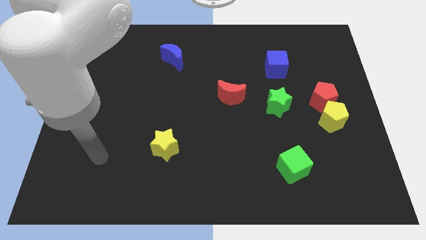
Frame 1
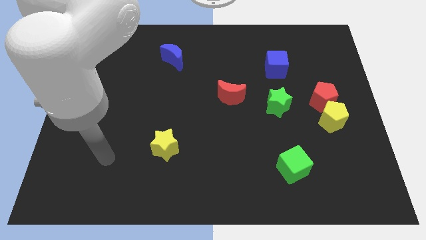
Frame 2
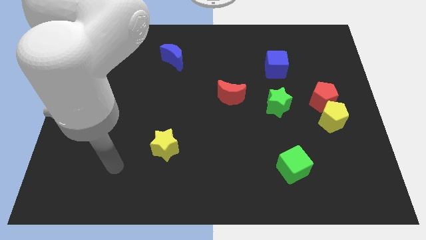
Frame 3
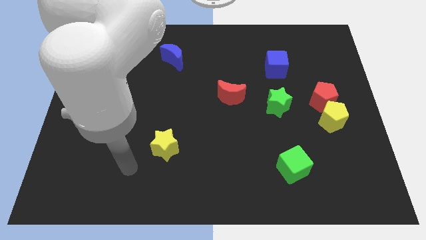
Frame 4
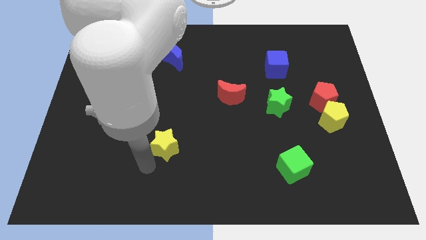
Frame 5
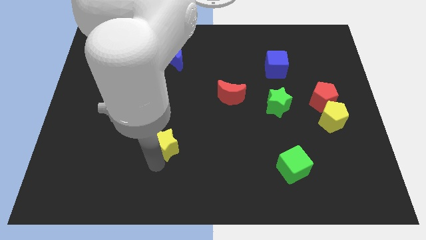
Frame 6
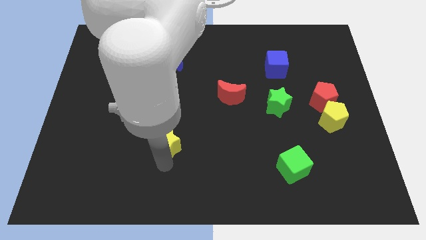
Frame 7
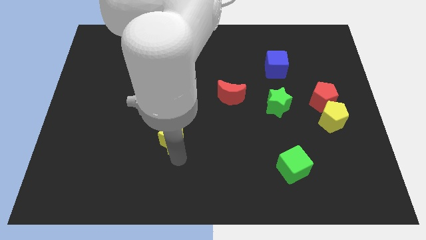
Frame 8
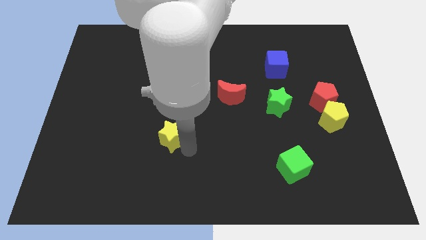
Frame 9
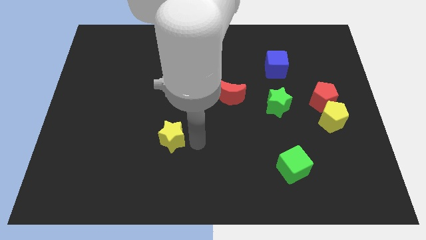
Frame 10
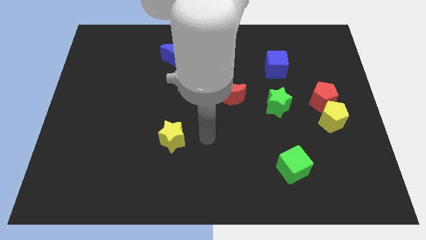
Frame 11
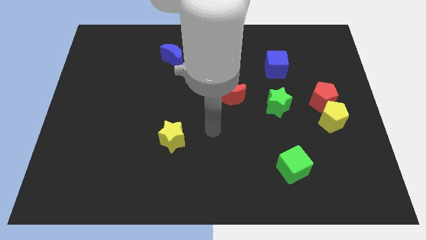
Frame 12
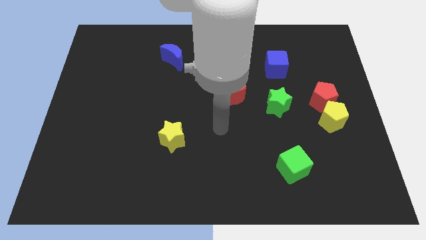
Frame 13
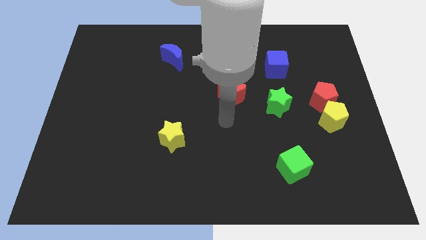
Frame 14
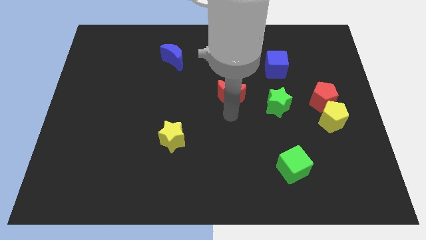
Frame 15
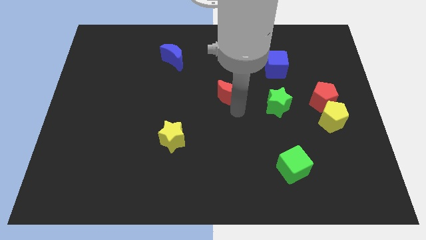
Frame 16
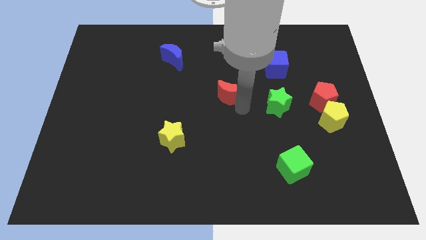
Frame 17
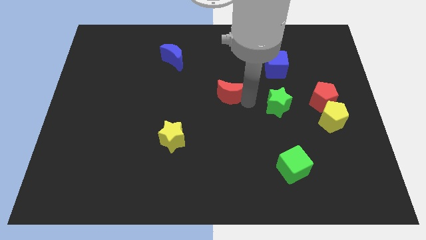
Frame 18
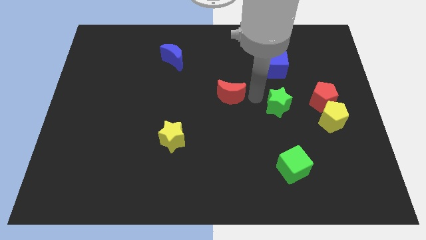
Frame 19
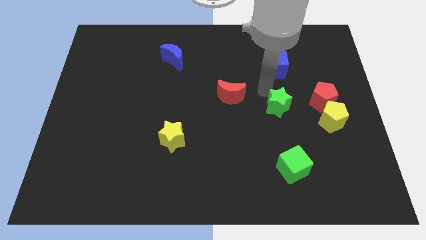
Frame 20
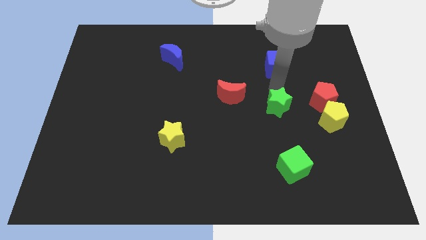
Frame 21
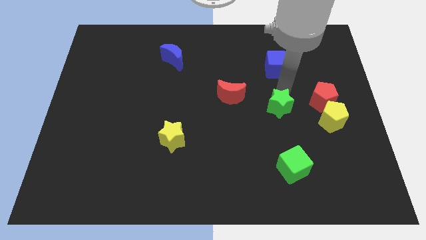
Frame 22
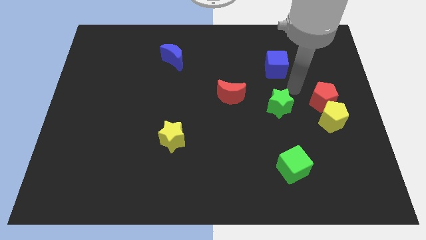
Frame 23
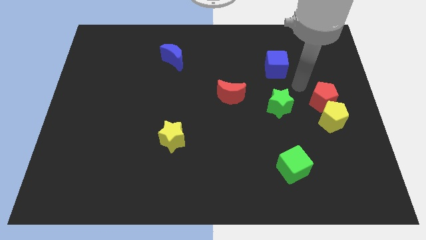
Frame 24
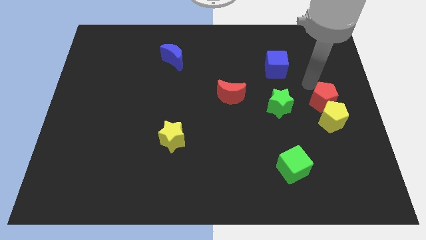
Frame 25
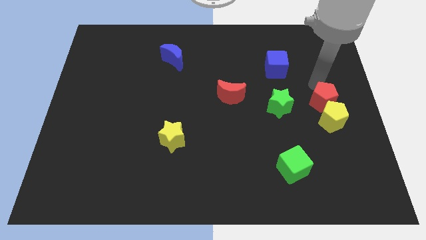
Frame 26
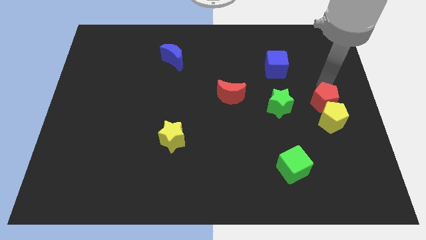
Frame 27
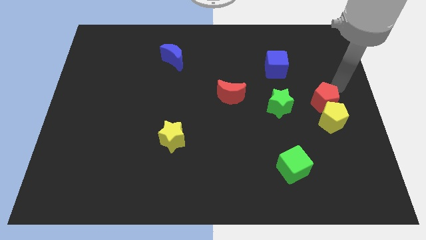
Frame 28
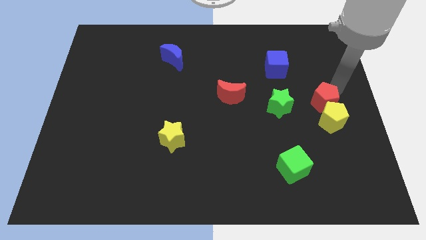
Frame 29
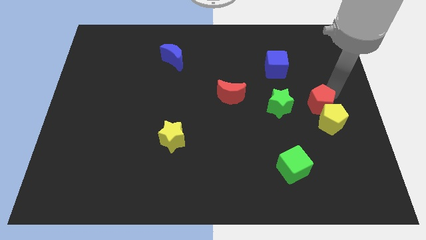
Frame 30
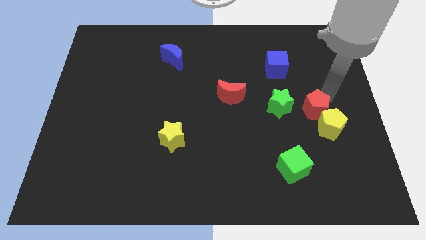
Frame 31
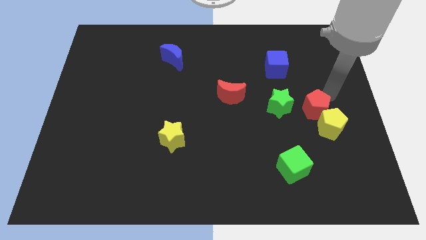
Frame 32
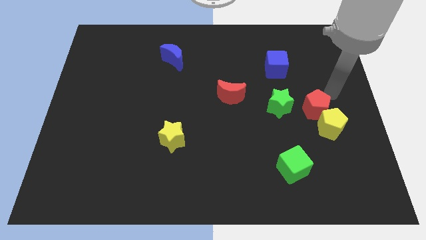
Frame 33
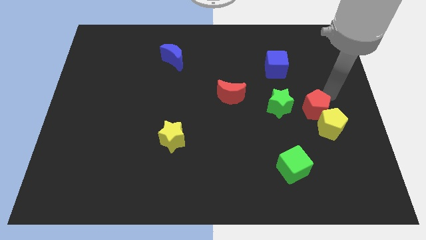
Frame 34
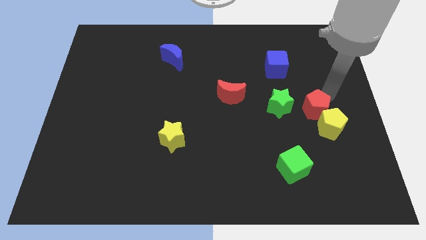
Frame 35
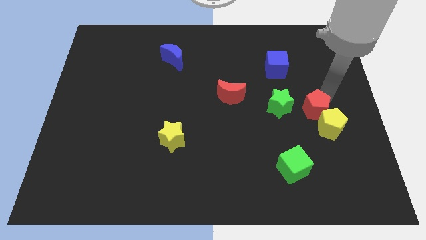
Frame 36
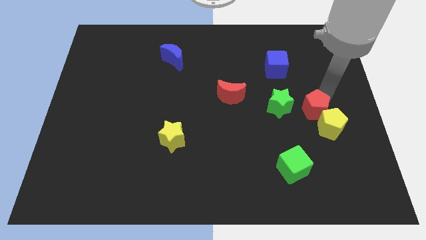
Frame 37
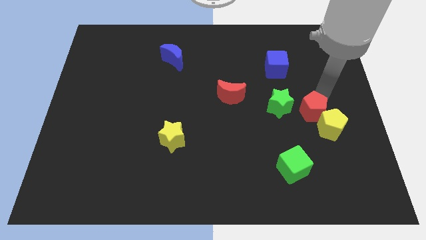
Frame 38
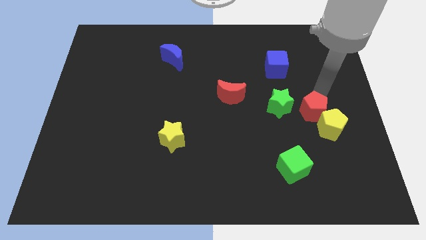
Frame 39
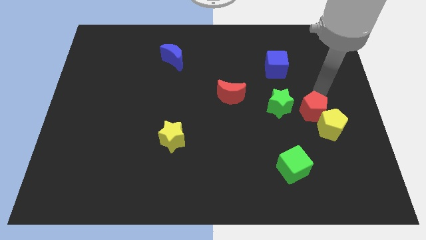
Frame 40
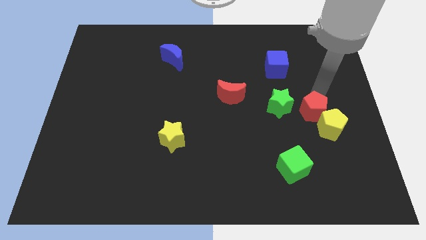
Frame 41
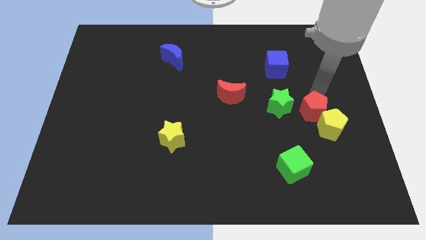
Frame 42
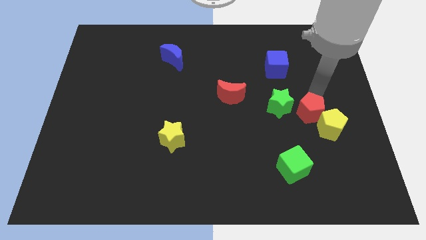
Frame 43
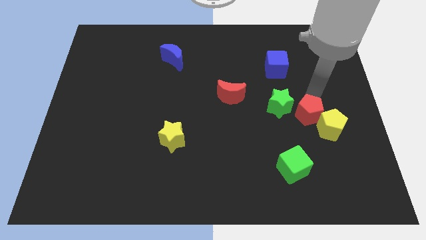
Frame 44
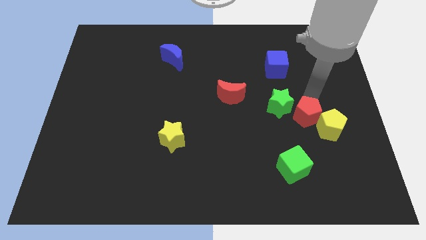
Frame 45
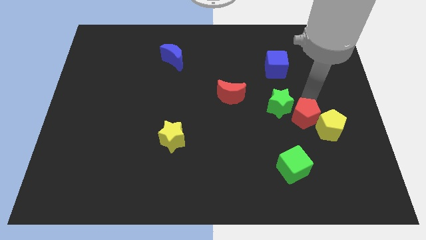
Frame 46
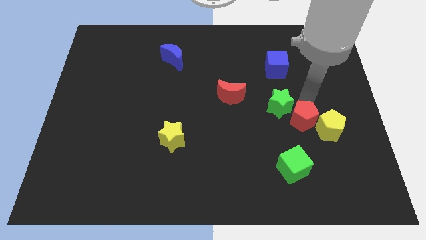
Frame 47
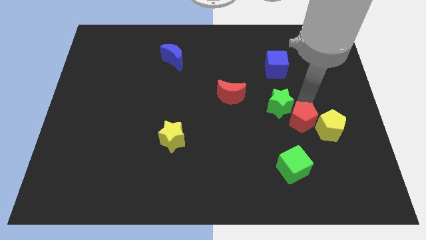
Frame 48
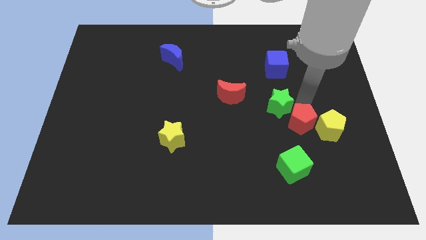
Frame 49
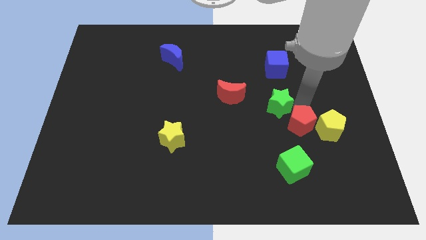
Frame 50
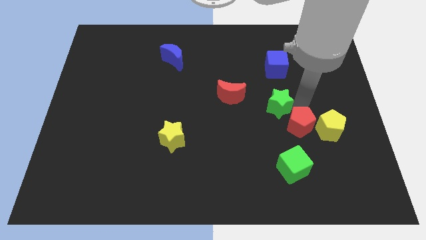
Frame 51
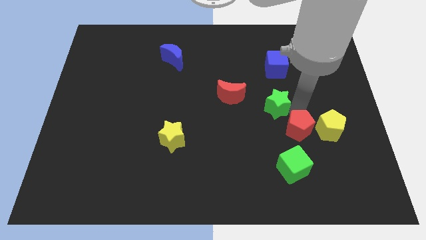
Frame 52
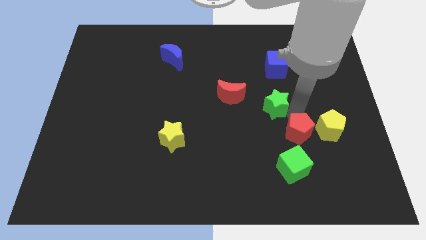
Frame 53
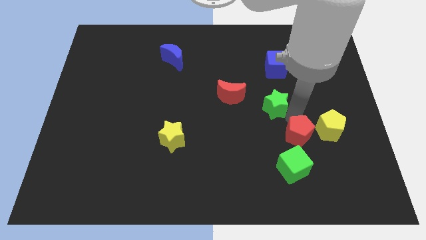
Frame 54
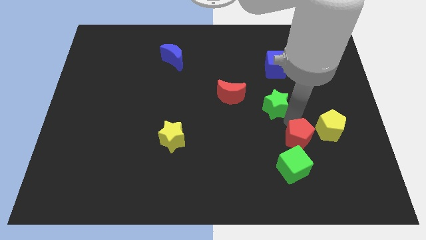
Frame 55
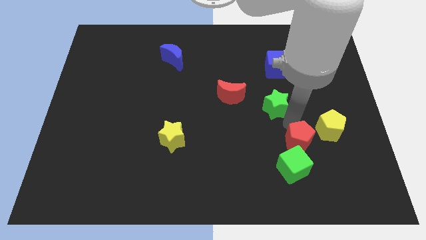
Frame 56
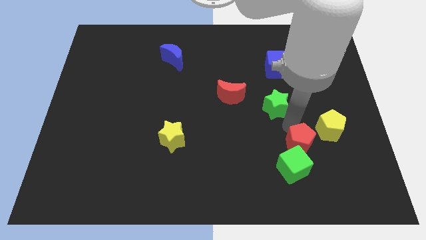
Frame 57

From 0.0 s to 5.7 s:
put the red pentagon close to the green cube

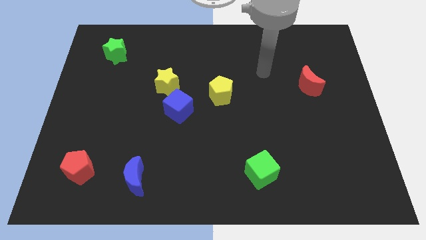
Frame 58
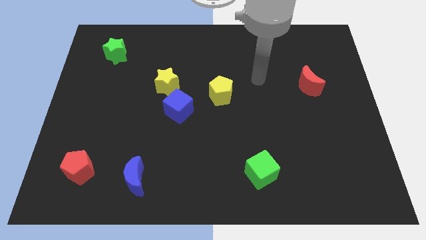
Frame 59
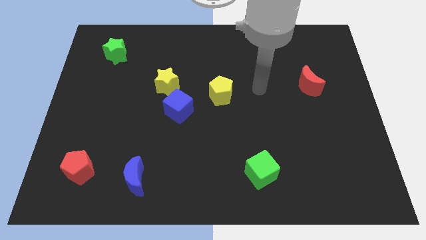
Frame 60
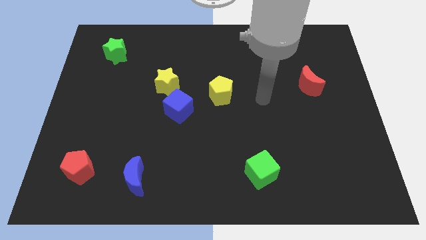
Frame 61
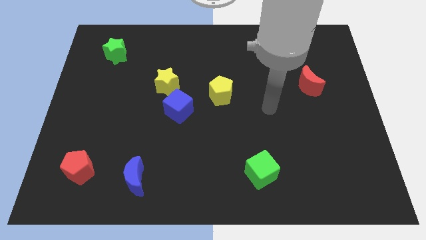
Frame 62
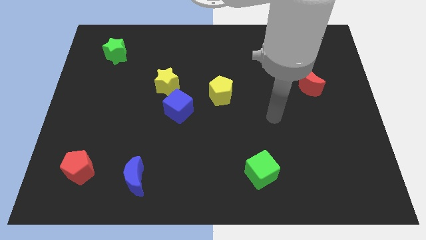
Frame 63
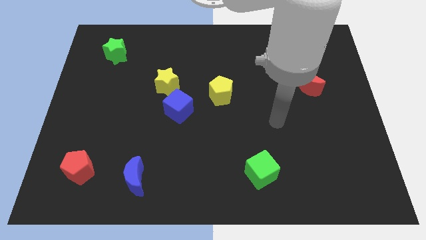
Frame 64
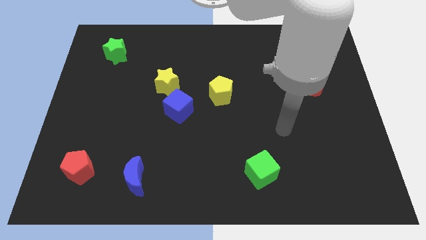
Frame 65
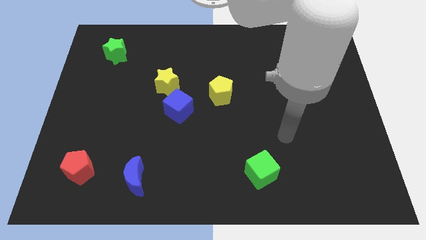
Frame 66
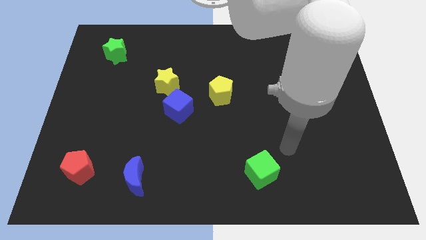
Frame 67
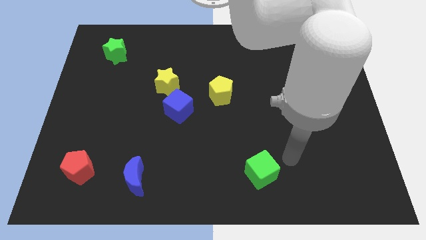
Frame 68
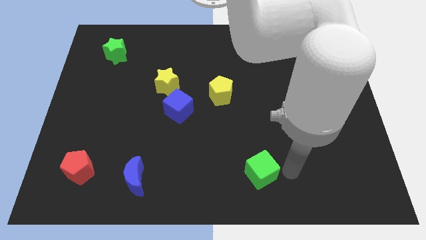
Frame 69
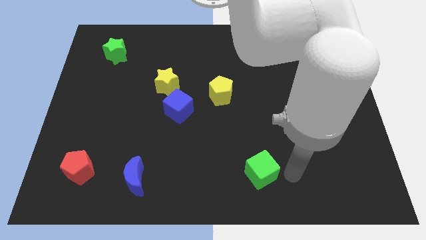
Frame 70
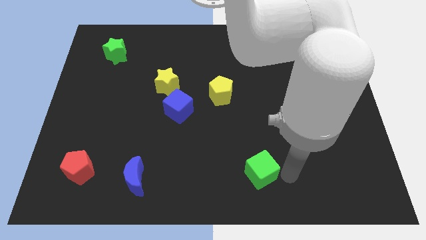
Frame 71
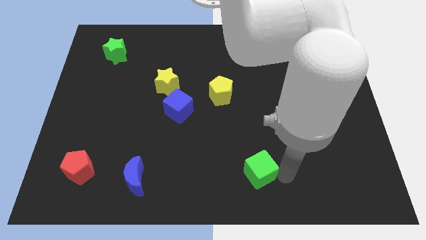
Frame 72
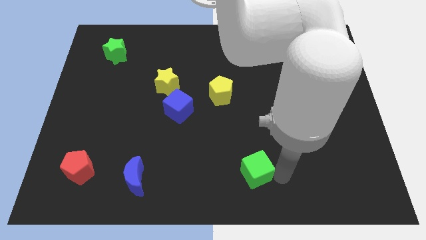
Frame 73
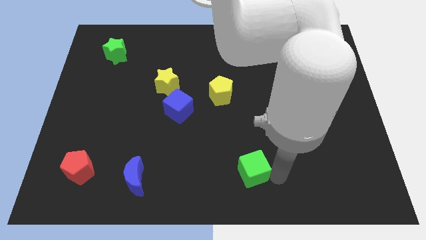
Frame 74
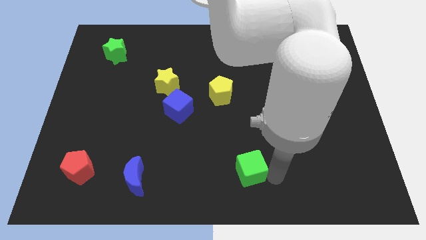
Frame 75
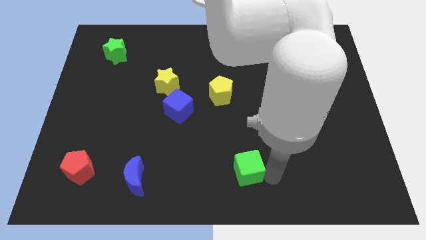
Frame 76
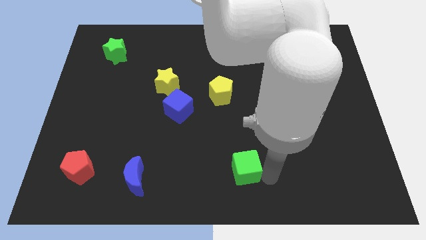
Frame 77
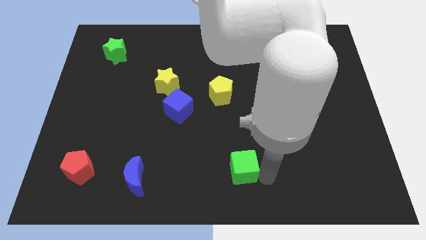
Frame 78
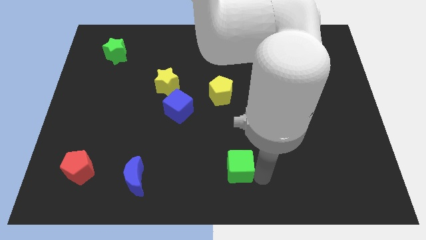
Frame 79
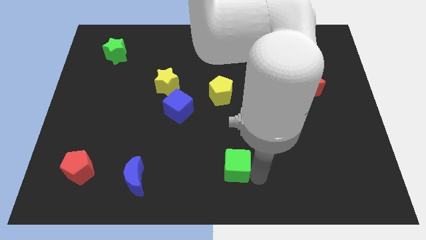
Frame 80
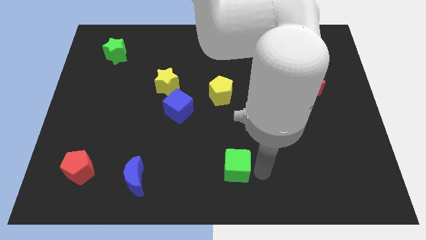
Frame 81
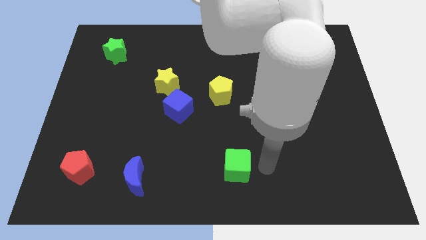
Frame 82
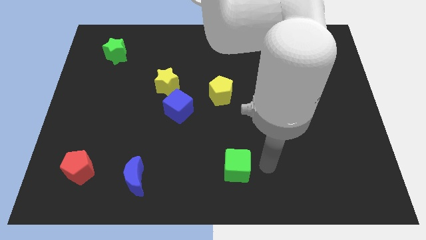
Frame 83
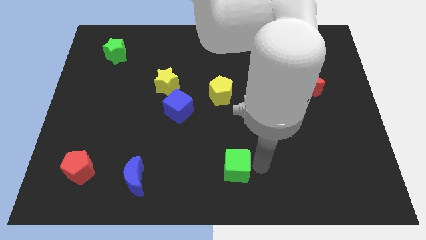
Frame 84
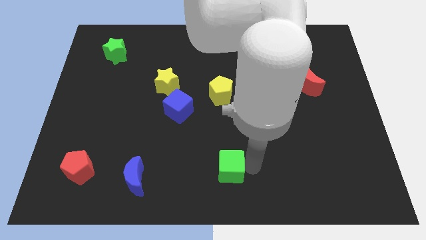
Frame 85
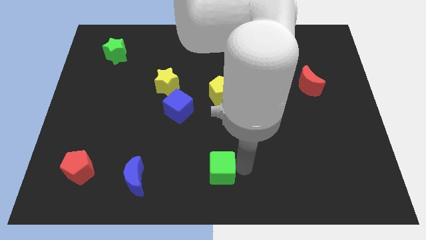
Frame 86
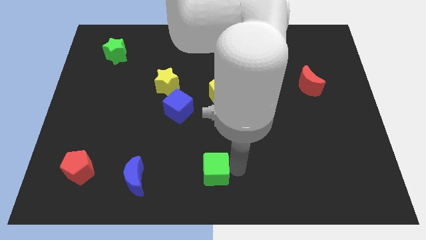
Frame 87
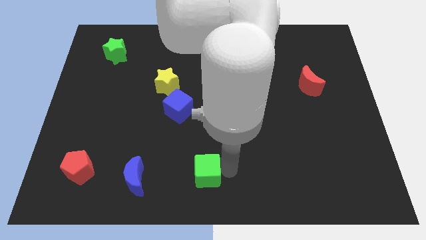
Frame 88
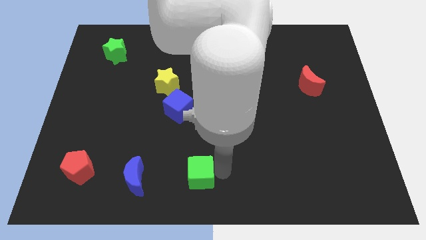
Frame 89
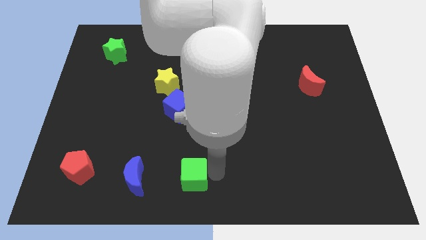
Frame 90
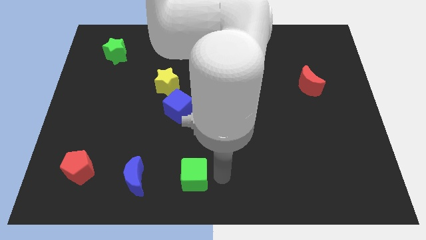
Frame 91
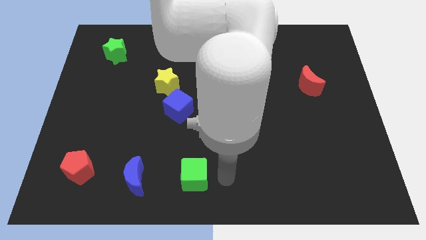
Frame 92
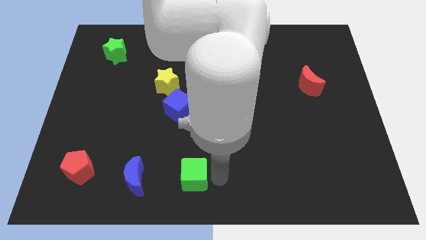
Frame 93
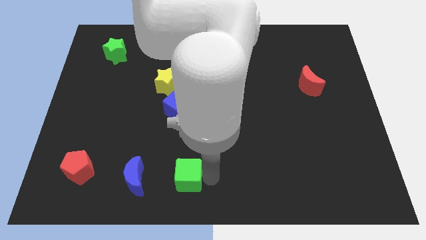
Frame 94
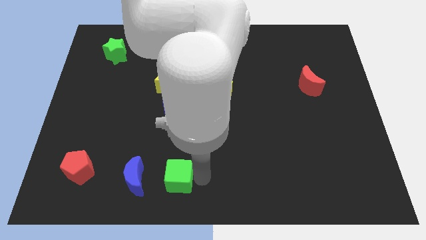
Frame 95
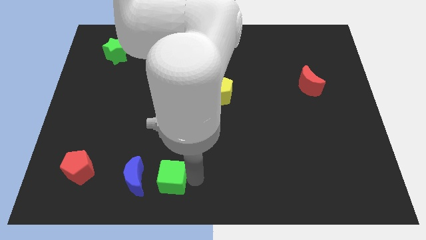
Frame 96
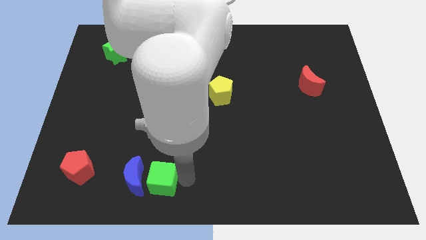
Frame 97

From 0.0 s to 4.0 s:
slide the green cube next to the blue moon
